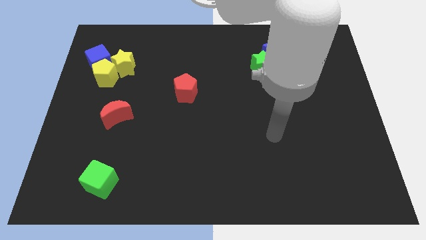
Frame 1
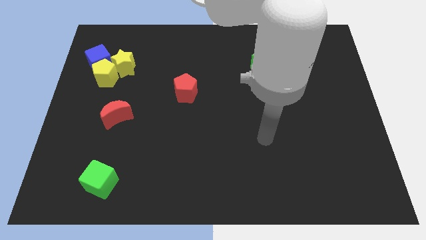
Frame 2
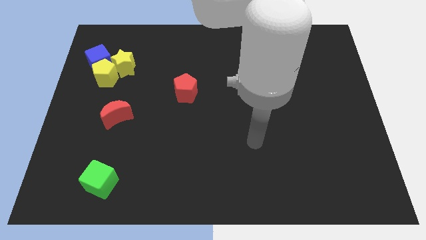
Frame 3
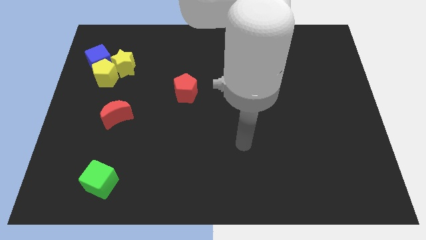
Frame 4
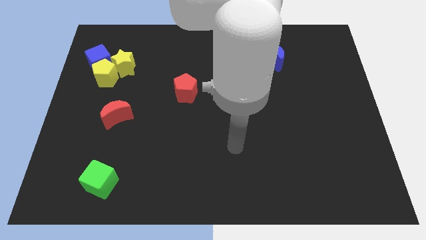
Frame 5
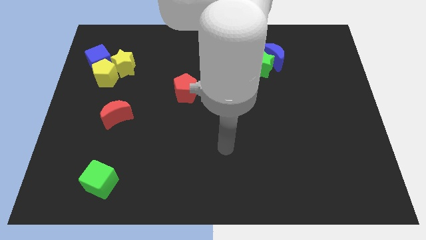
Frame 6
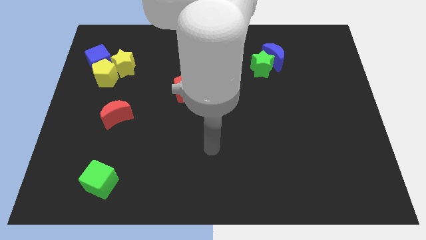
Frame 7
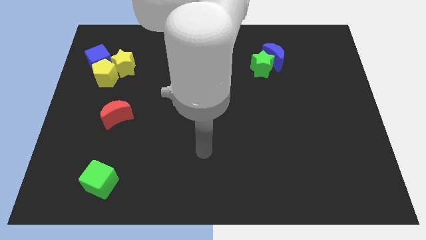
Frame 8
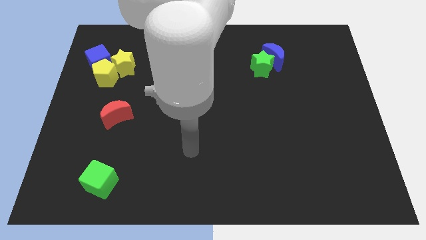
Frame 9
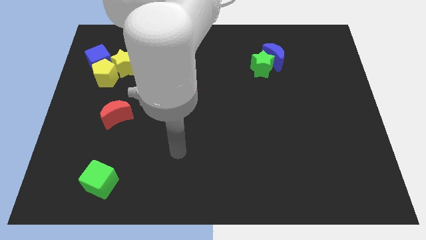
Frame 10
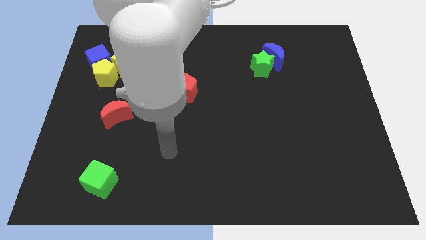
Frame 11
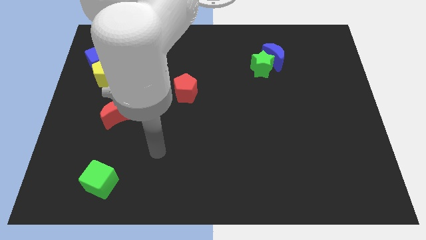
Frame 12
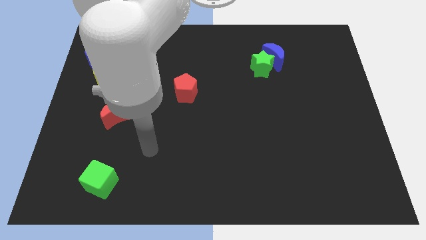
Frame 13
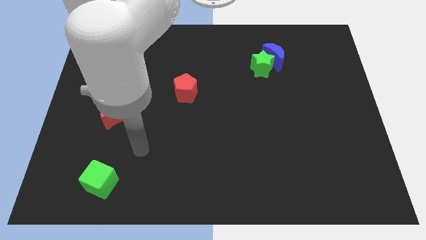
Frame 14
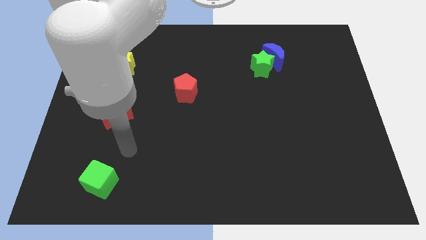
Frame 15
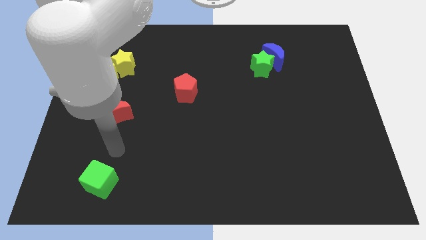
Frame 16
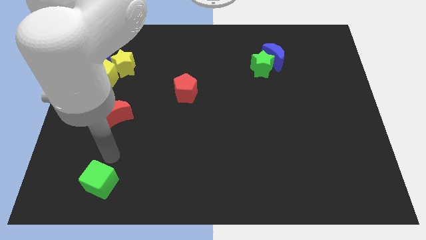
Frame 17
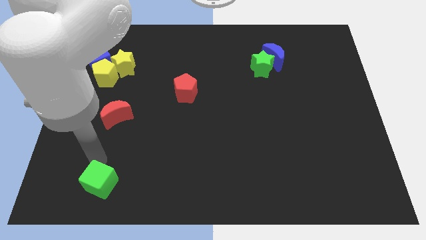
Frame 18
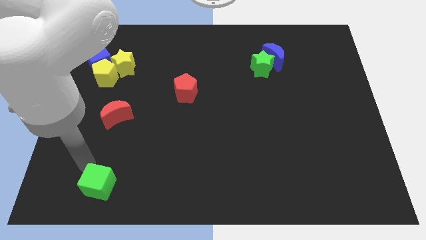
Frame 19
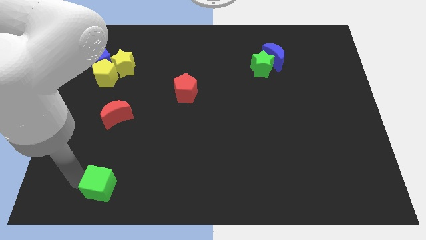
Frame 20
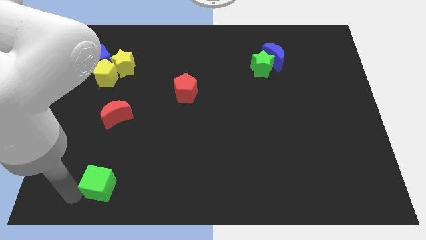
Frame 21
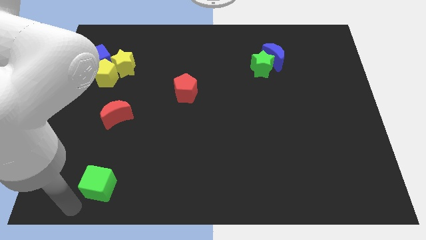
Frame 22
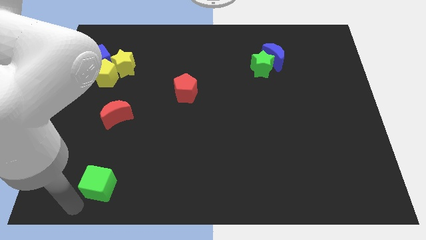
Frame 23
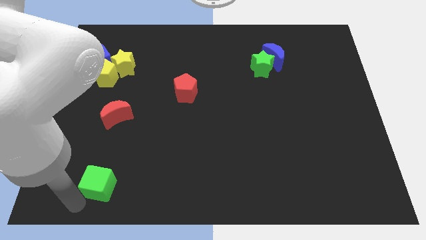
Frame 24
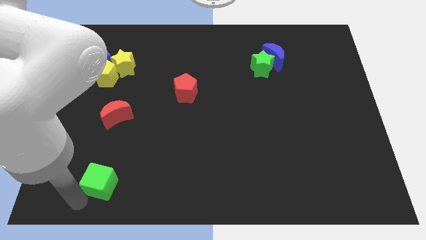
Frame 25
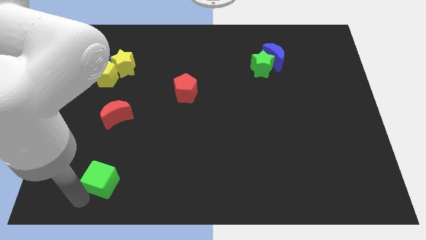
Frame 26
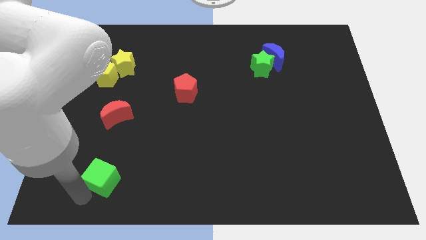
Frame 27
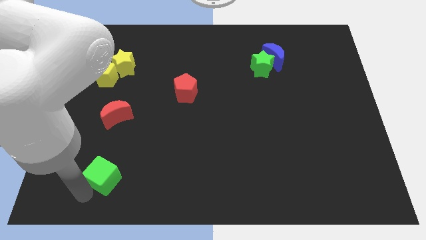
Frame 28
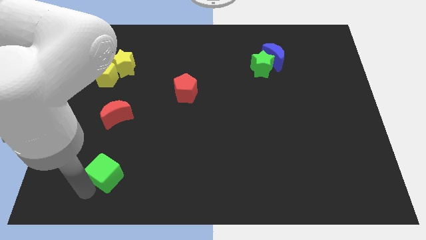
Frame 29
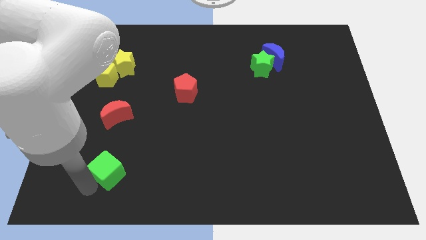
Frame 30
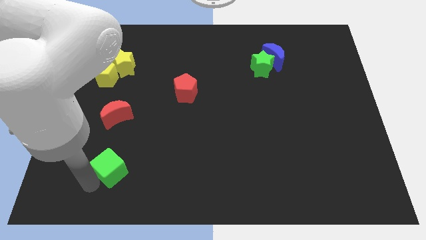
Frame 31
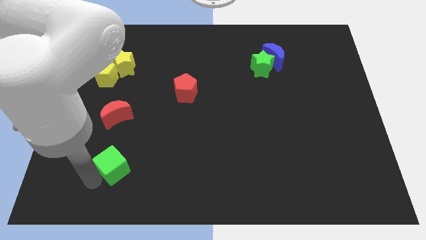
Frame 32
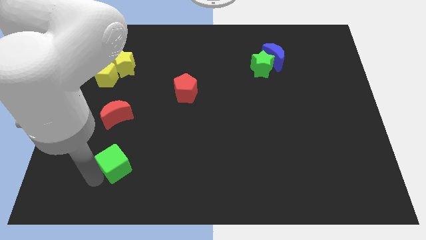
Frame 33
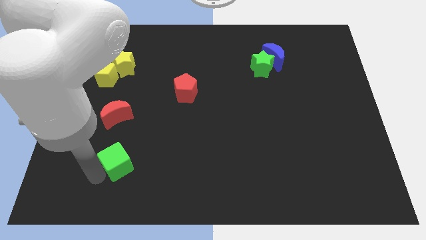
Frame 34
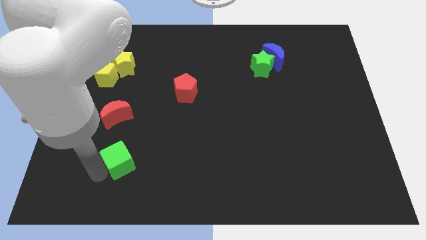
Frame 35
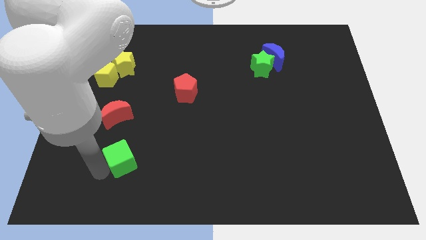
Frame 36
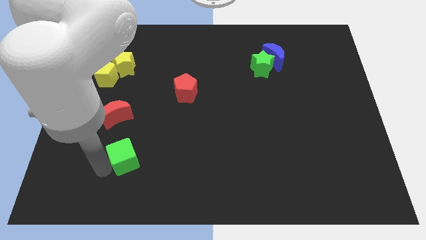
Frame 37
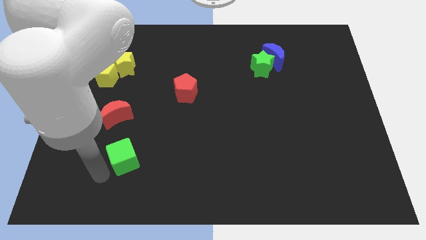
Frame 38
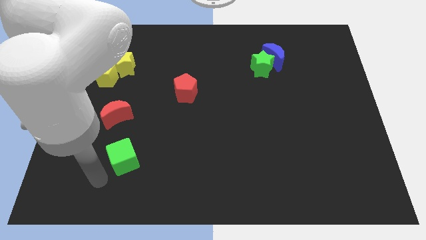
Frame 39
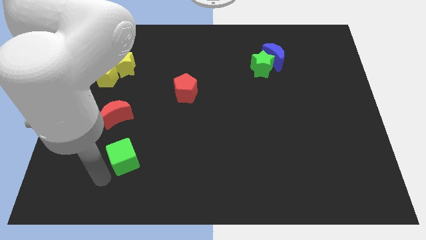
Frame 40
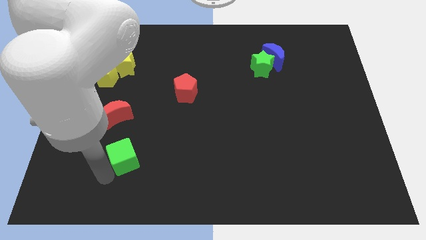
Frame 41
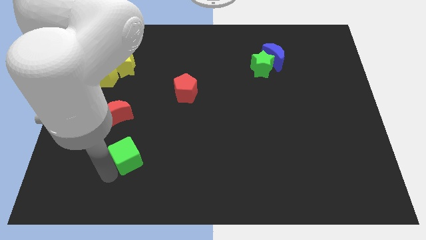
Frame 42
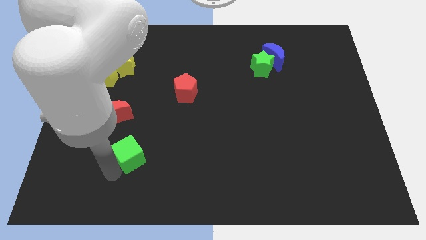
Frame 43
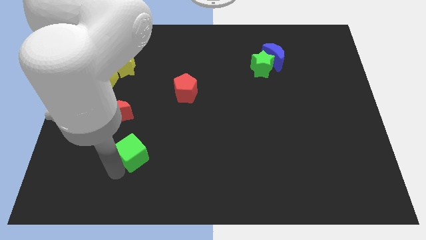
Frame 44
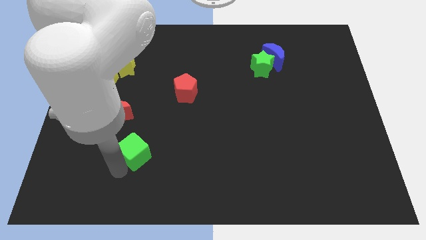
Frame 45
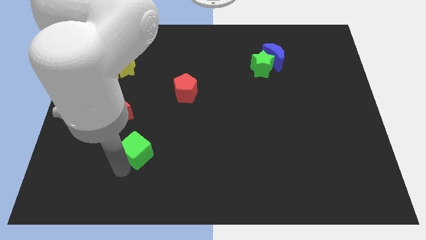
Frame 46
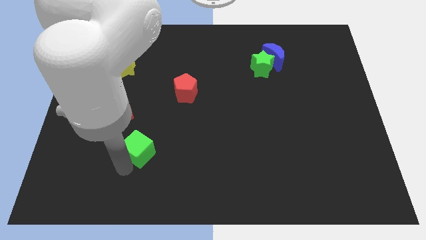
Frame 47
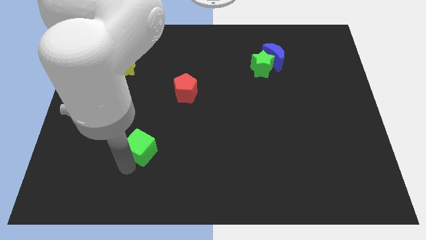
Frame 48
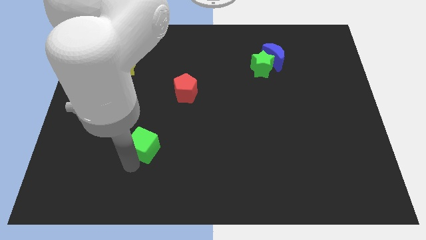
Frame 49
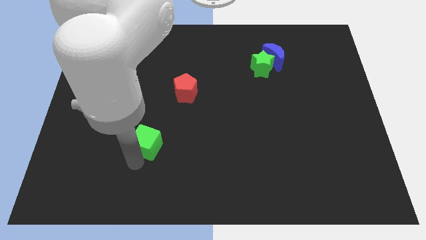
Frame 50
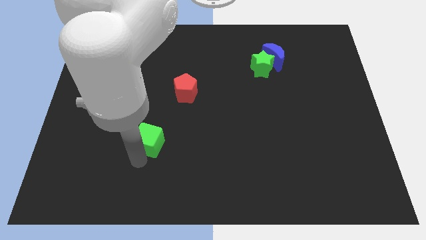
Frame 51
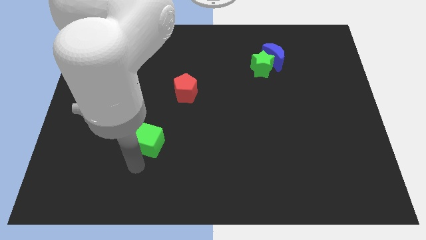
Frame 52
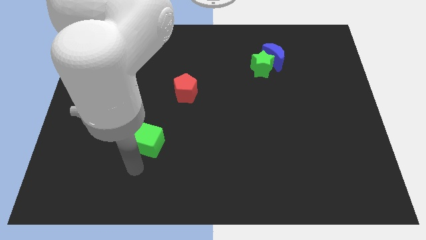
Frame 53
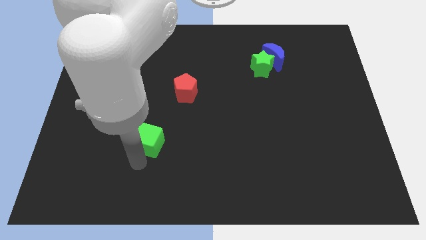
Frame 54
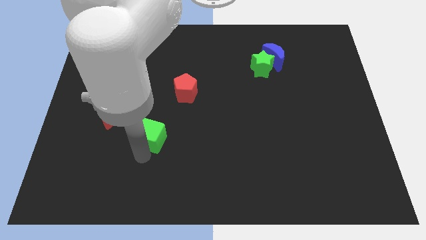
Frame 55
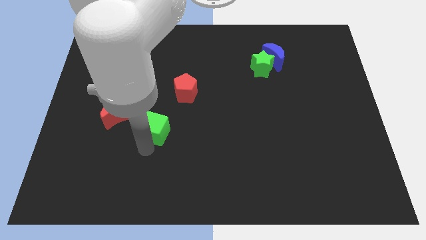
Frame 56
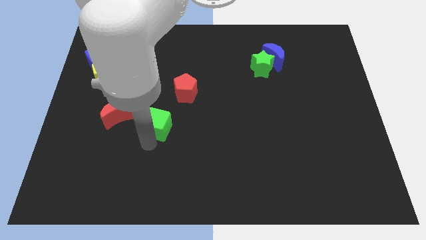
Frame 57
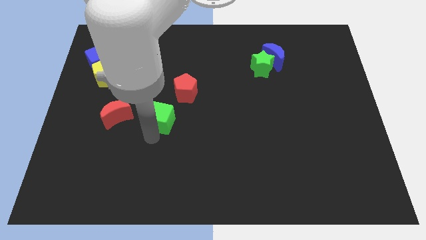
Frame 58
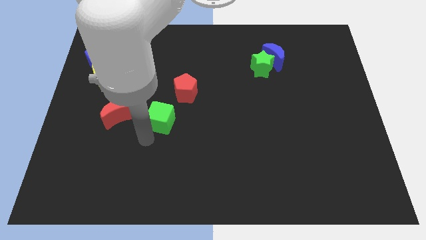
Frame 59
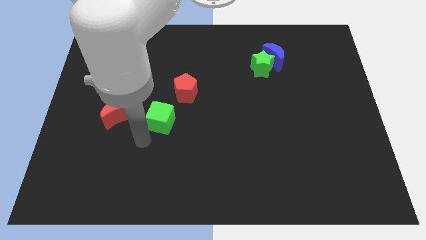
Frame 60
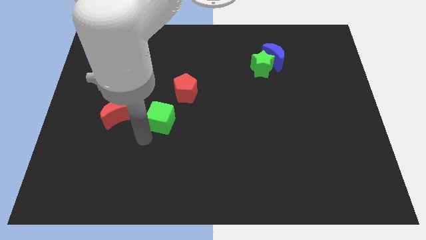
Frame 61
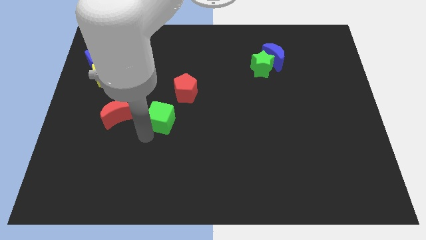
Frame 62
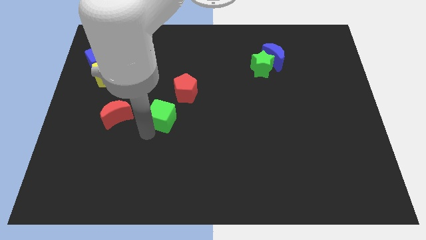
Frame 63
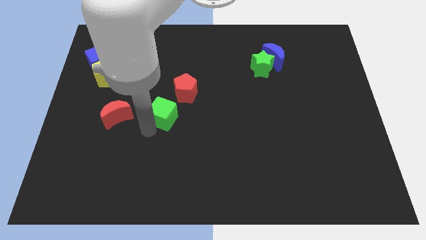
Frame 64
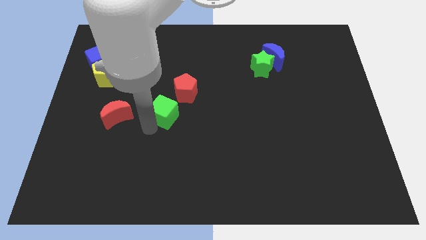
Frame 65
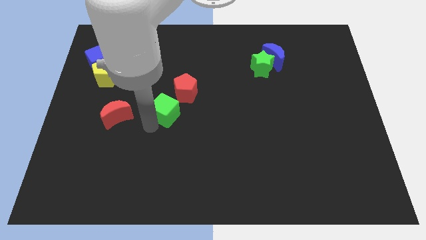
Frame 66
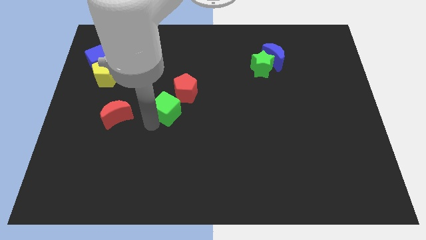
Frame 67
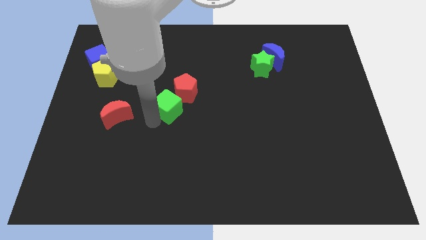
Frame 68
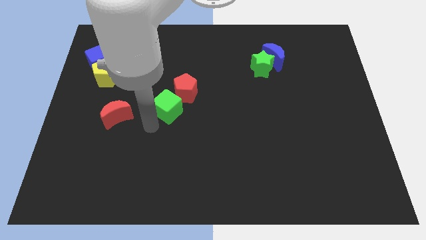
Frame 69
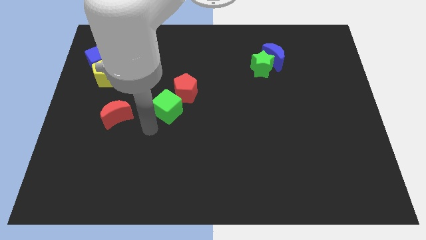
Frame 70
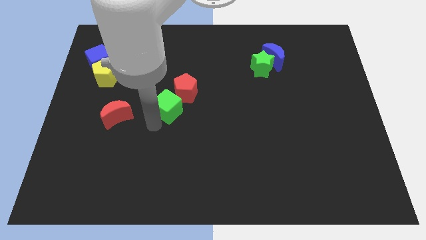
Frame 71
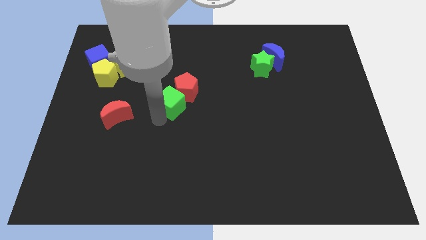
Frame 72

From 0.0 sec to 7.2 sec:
slide the green cube towards the red pentagon
